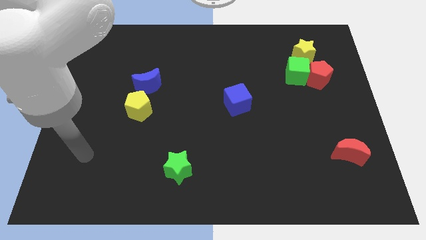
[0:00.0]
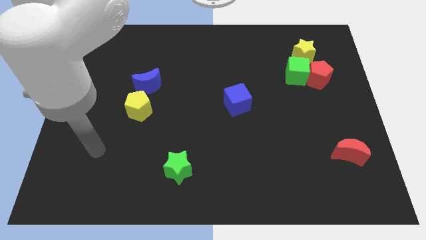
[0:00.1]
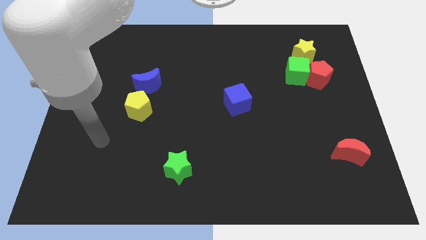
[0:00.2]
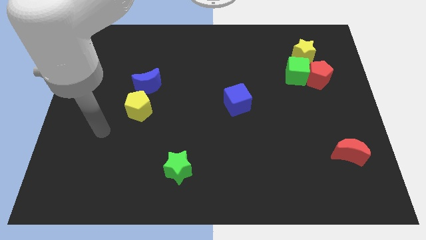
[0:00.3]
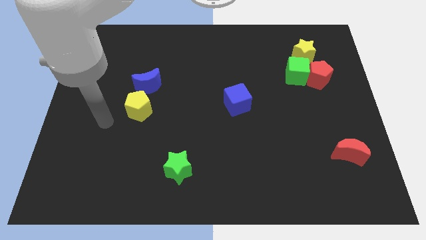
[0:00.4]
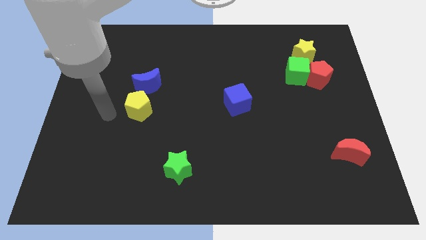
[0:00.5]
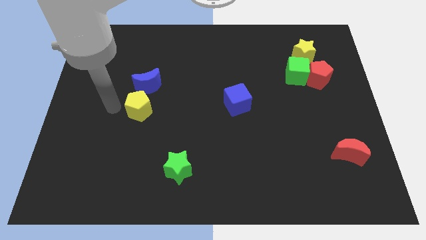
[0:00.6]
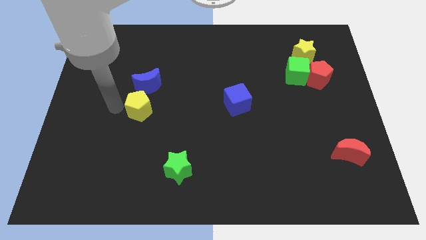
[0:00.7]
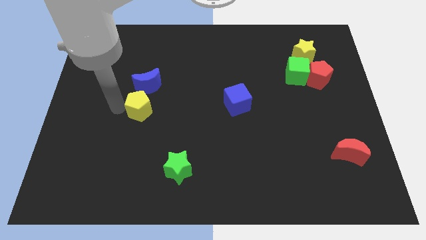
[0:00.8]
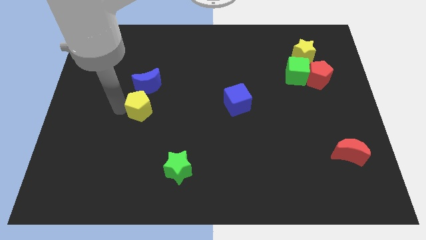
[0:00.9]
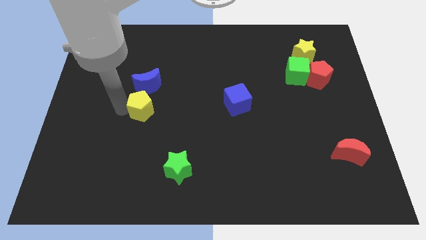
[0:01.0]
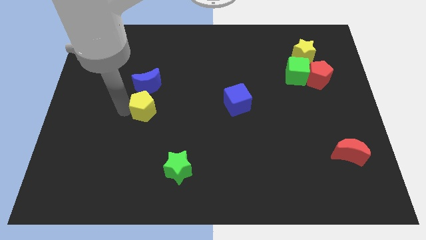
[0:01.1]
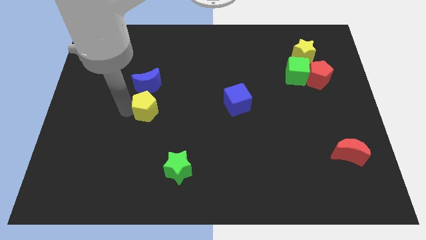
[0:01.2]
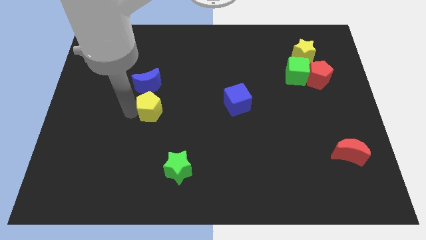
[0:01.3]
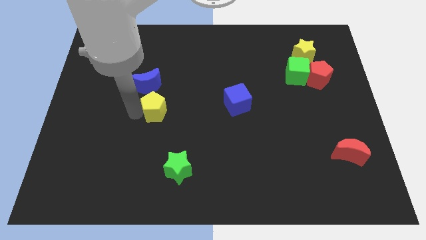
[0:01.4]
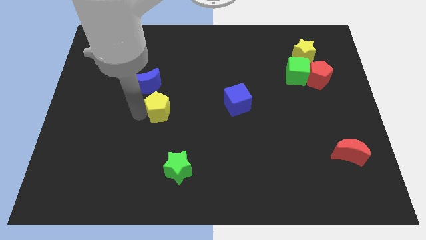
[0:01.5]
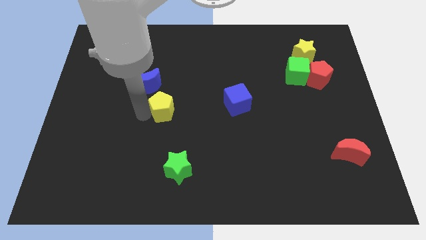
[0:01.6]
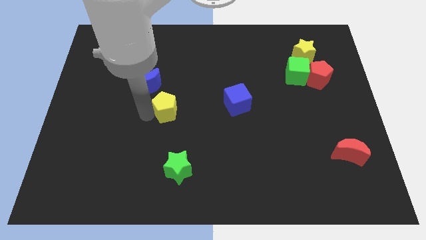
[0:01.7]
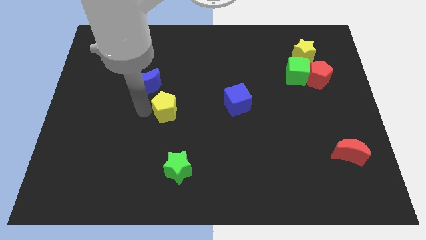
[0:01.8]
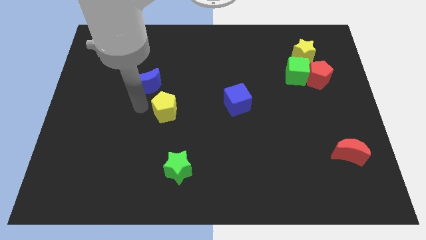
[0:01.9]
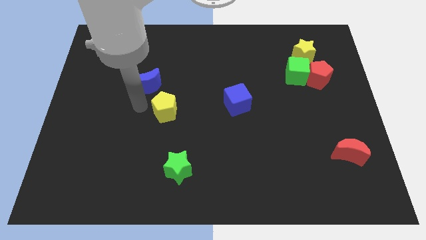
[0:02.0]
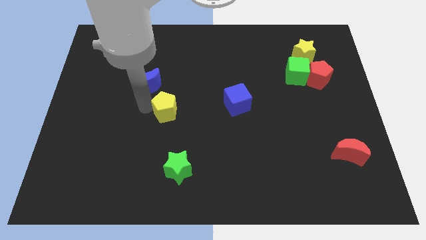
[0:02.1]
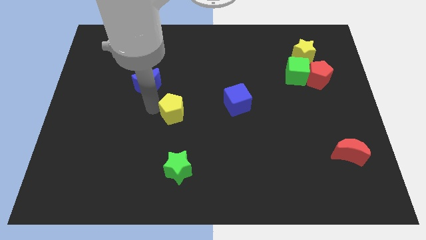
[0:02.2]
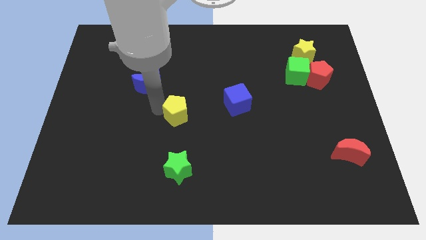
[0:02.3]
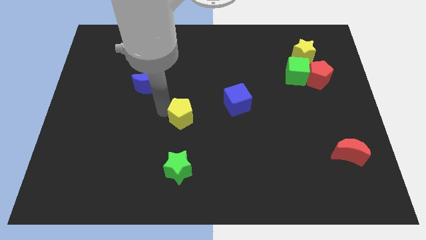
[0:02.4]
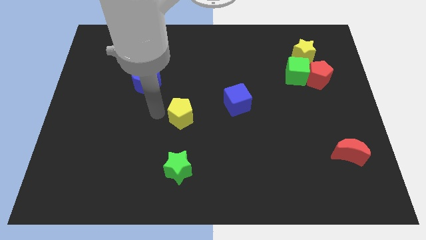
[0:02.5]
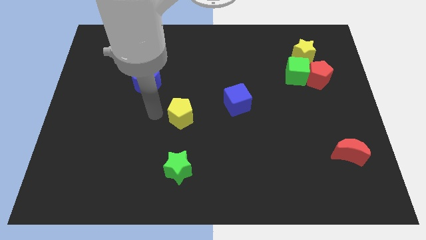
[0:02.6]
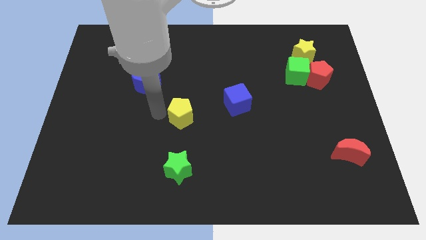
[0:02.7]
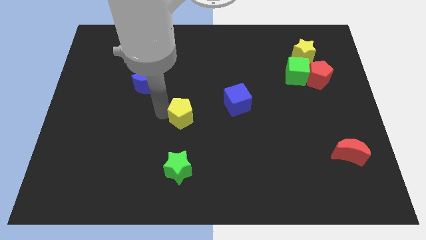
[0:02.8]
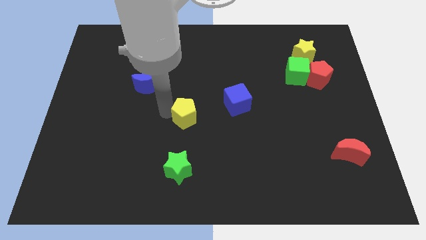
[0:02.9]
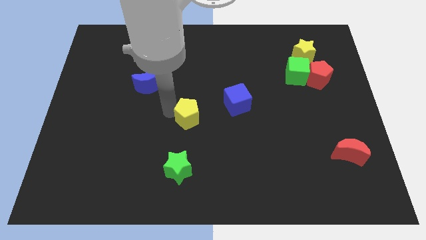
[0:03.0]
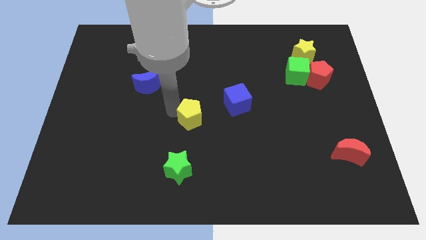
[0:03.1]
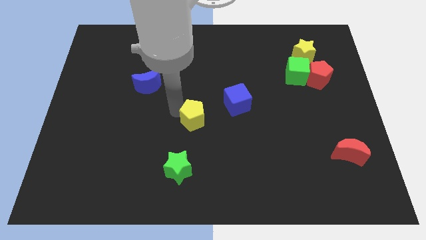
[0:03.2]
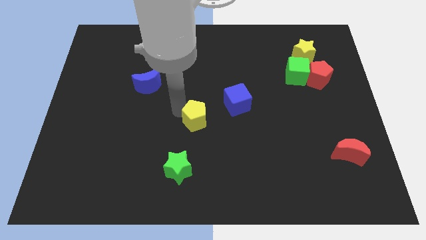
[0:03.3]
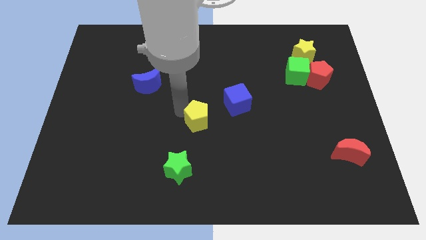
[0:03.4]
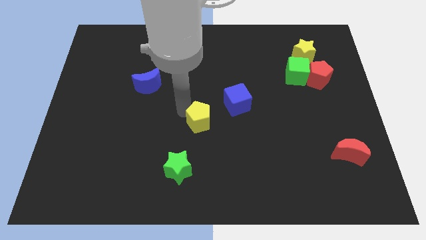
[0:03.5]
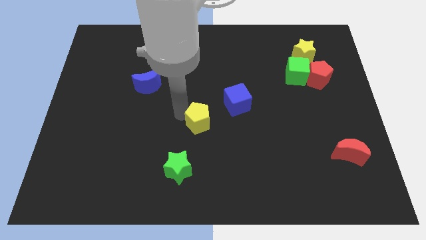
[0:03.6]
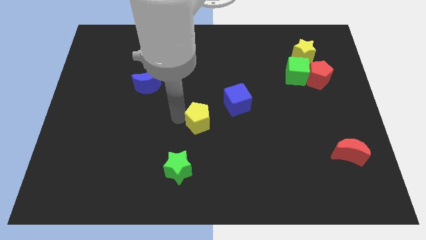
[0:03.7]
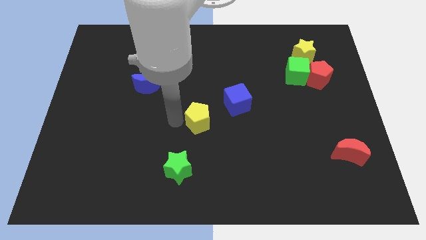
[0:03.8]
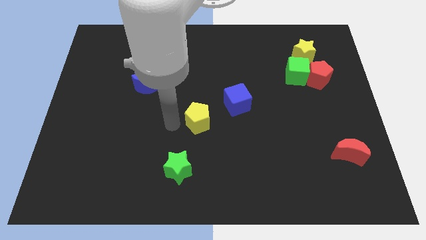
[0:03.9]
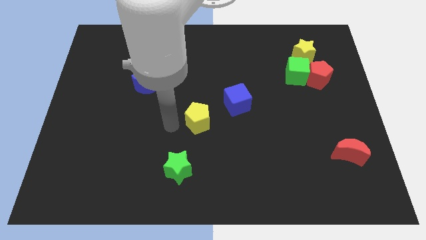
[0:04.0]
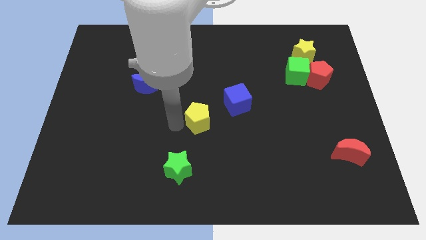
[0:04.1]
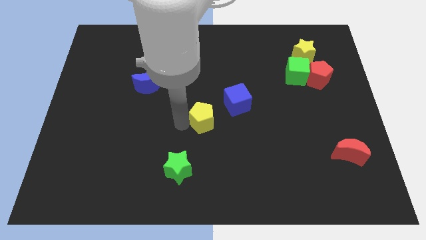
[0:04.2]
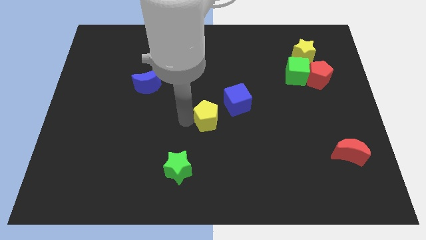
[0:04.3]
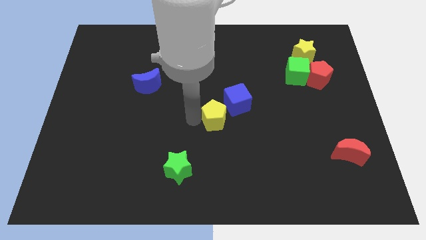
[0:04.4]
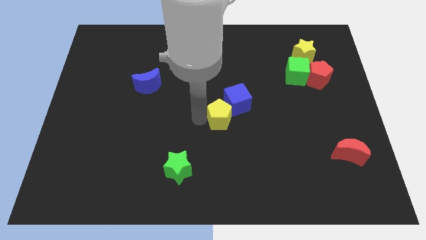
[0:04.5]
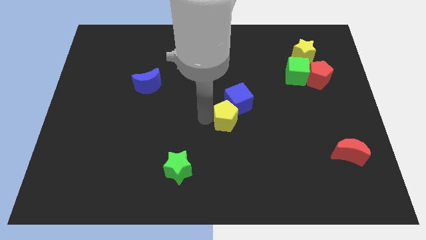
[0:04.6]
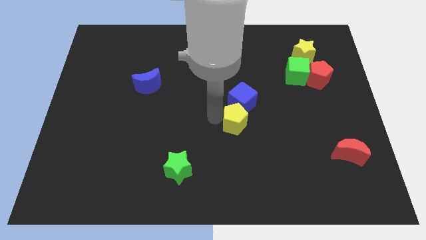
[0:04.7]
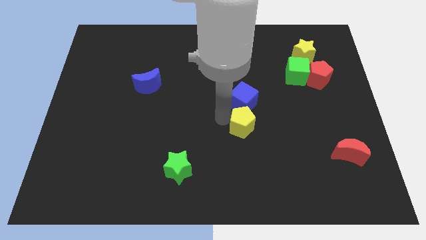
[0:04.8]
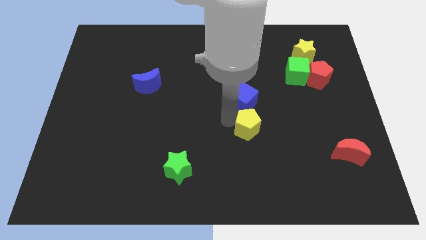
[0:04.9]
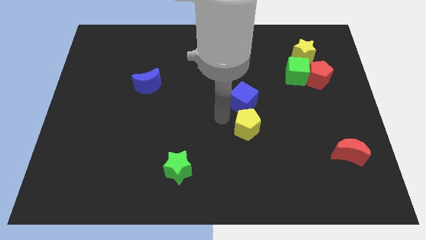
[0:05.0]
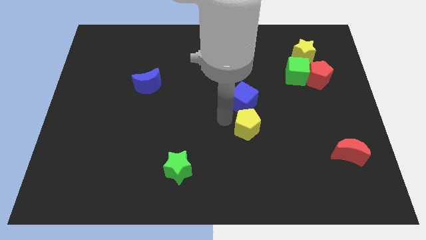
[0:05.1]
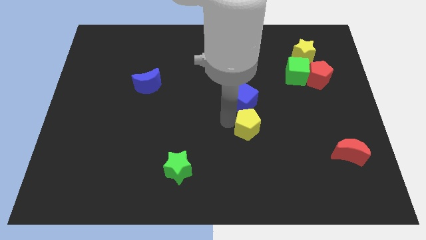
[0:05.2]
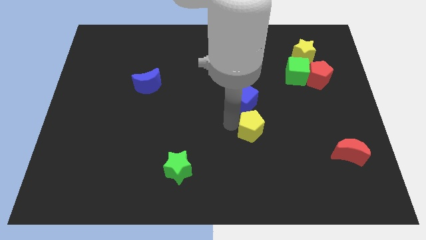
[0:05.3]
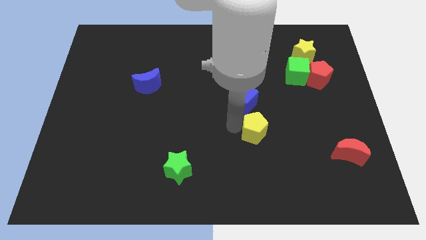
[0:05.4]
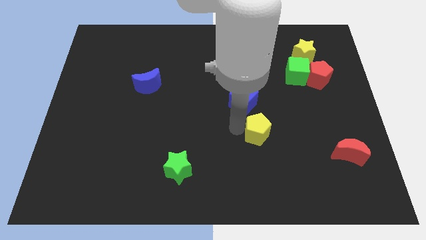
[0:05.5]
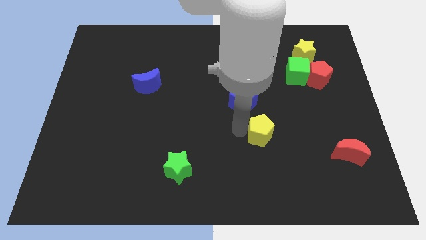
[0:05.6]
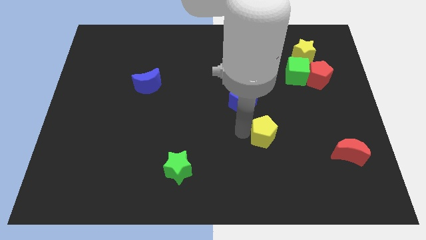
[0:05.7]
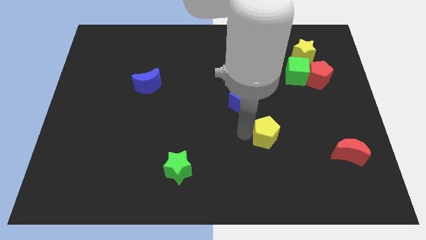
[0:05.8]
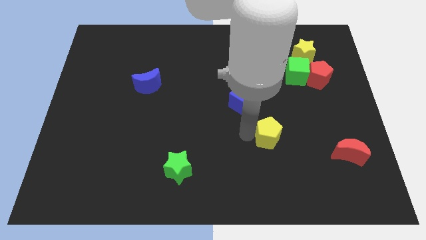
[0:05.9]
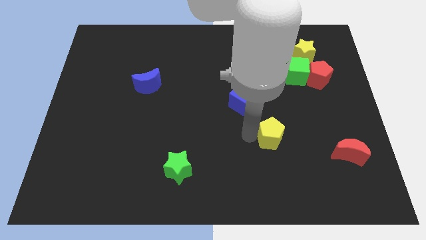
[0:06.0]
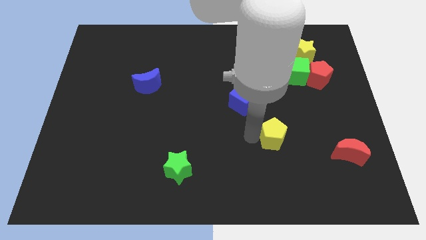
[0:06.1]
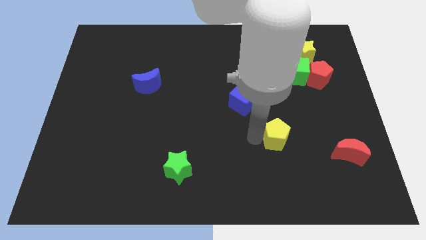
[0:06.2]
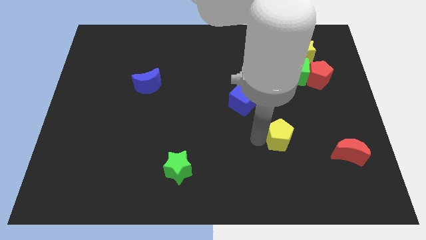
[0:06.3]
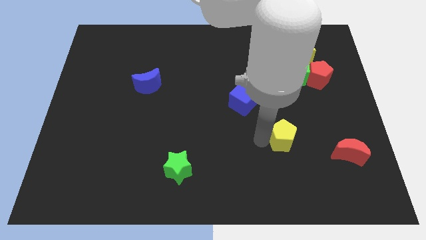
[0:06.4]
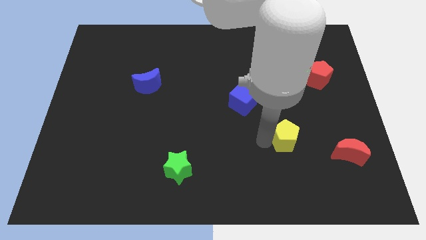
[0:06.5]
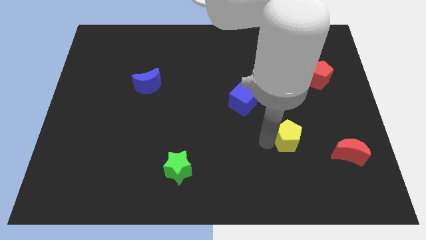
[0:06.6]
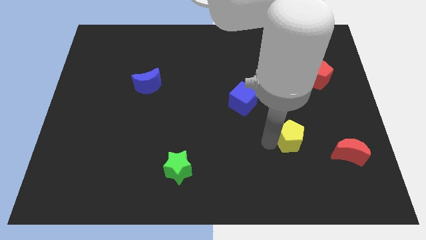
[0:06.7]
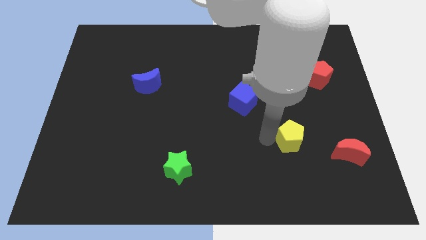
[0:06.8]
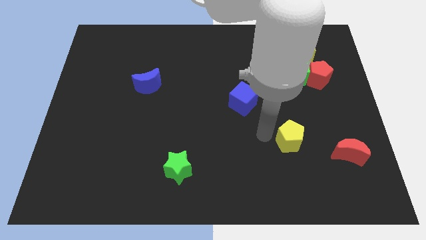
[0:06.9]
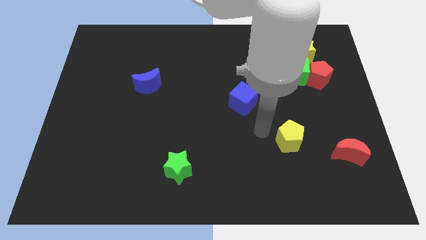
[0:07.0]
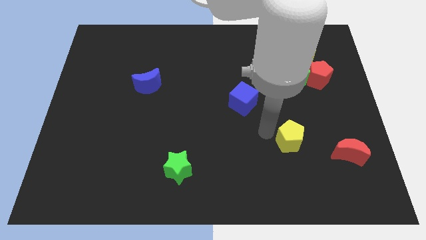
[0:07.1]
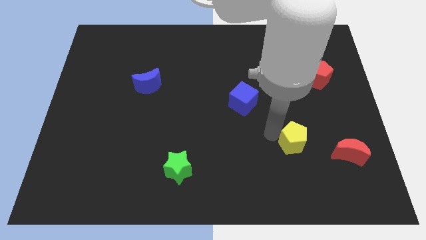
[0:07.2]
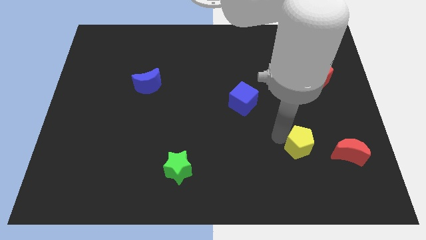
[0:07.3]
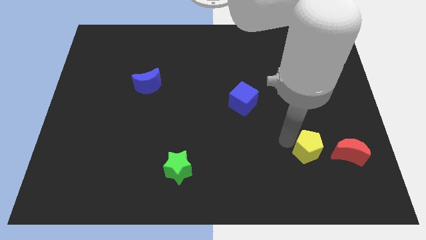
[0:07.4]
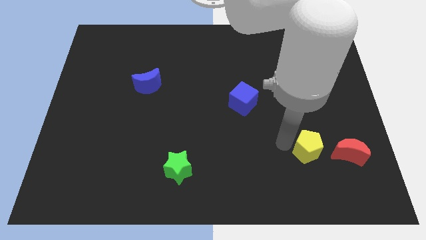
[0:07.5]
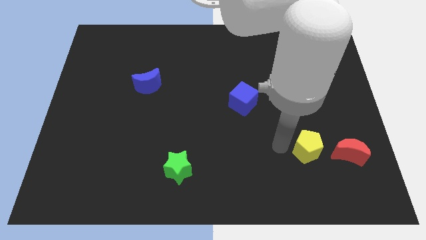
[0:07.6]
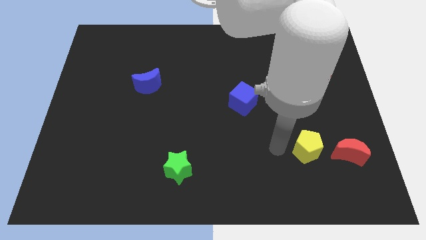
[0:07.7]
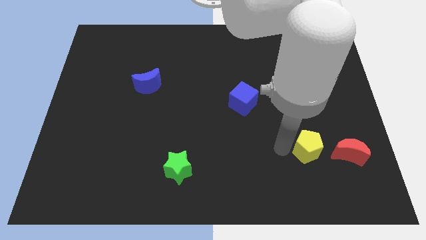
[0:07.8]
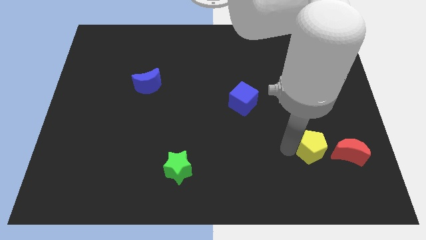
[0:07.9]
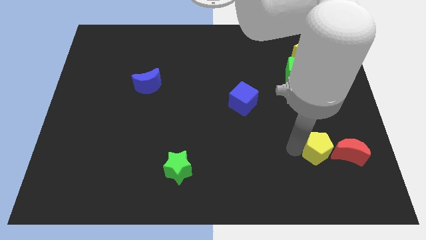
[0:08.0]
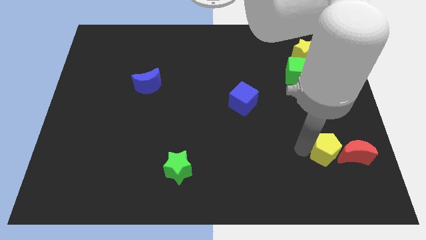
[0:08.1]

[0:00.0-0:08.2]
slide the yellow pentagon close to the red moon
